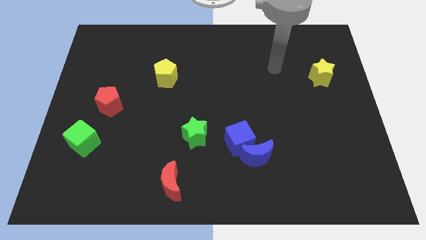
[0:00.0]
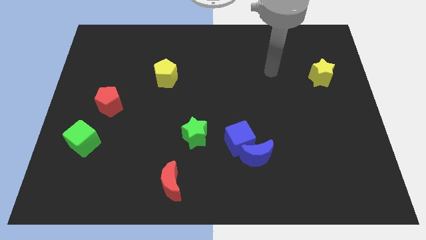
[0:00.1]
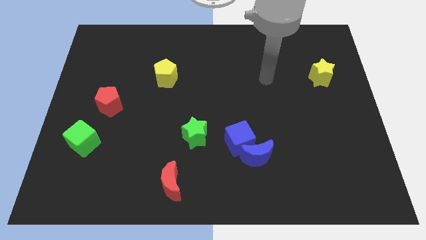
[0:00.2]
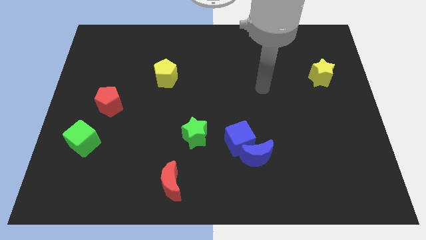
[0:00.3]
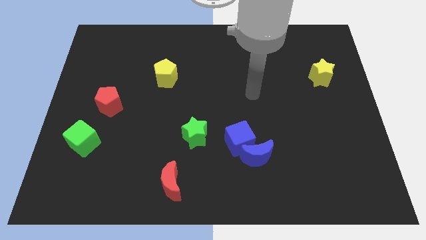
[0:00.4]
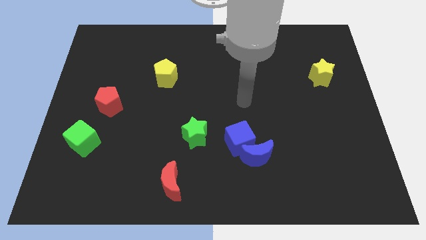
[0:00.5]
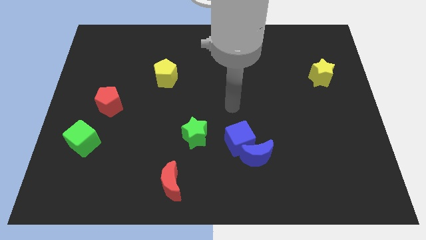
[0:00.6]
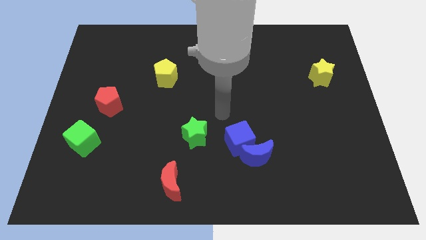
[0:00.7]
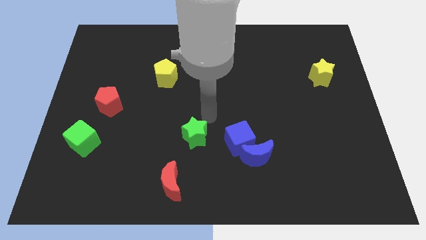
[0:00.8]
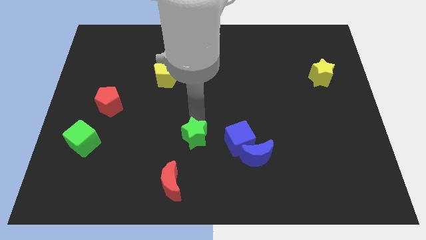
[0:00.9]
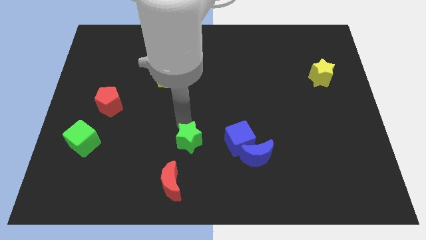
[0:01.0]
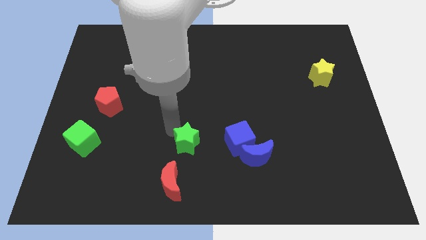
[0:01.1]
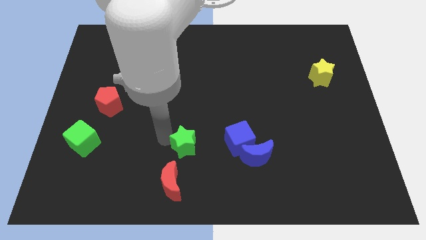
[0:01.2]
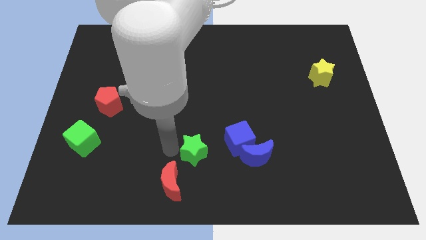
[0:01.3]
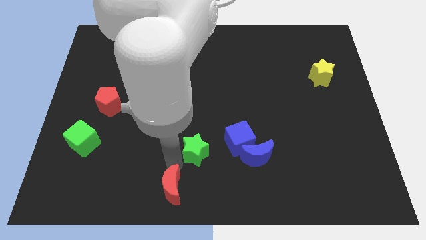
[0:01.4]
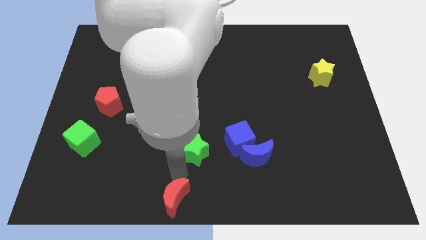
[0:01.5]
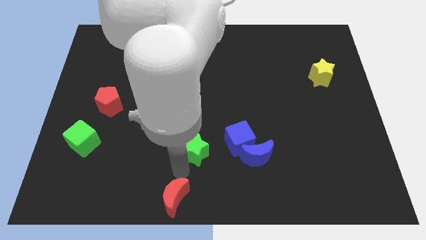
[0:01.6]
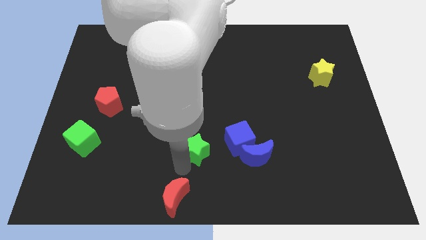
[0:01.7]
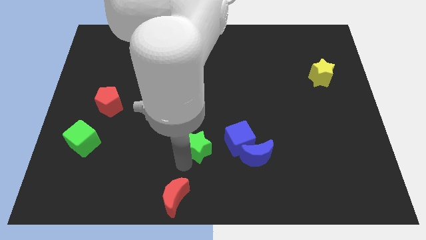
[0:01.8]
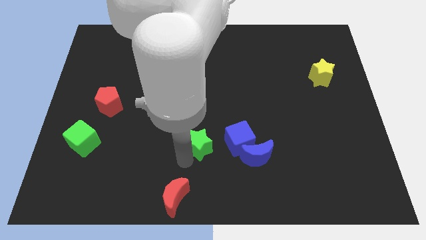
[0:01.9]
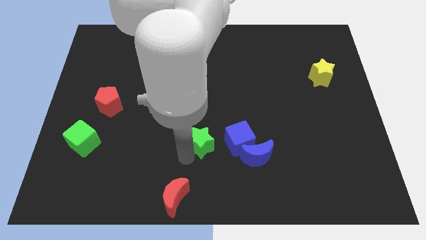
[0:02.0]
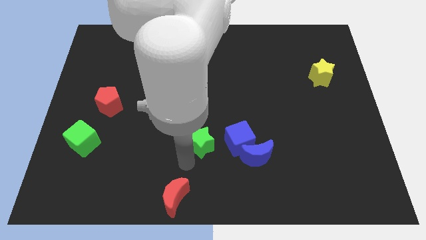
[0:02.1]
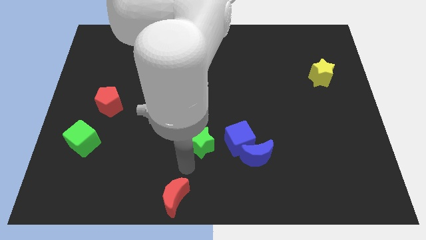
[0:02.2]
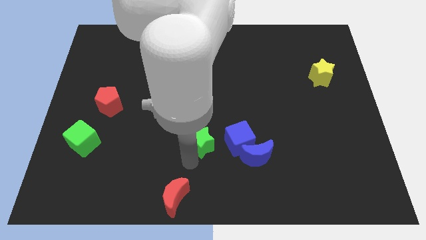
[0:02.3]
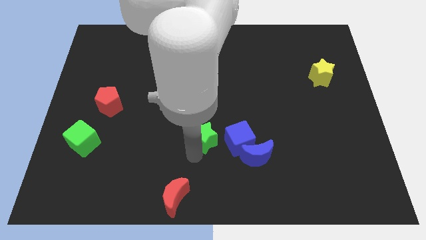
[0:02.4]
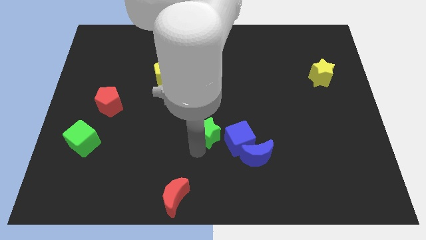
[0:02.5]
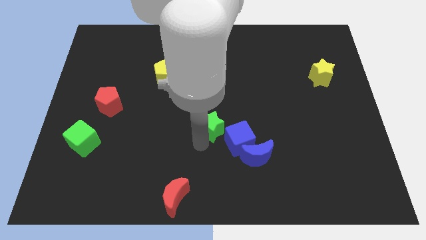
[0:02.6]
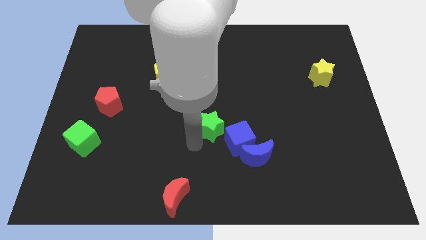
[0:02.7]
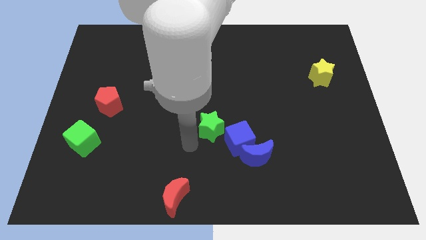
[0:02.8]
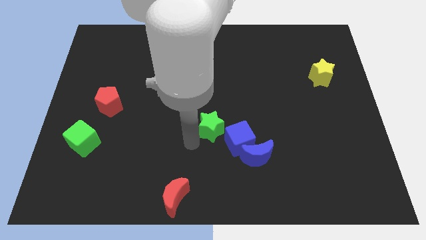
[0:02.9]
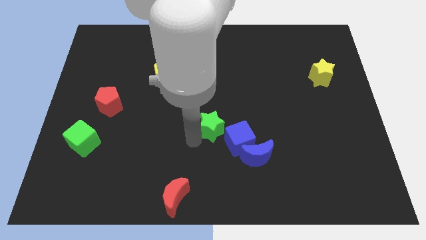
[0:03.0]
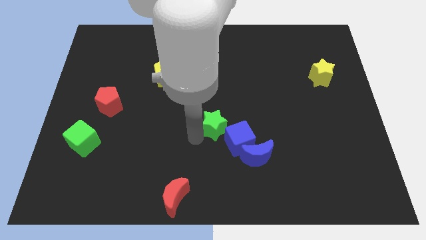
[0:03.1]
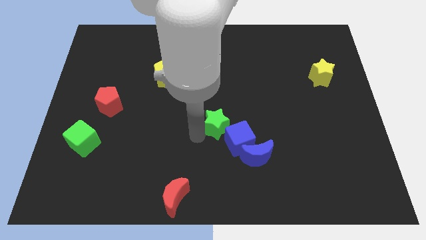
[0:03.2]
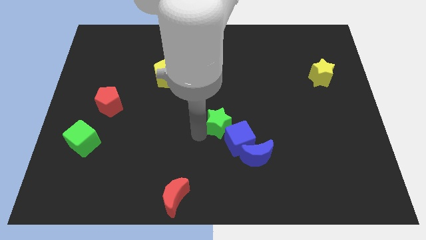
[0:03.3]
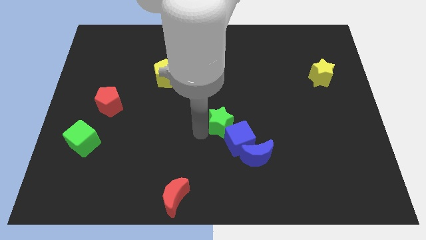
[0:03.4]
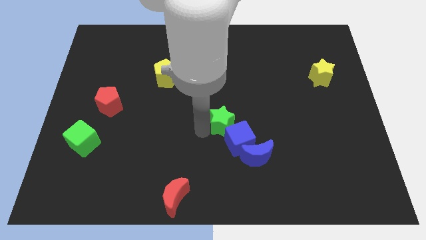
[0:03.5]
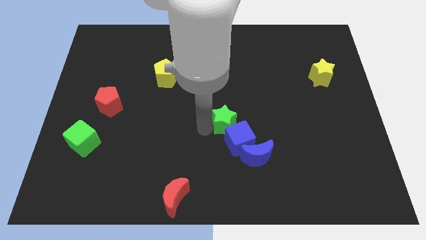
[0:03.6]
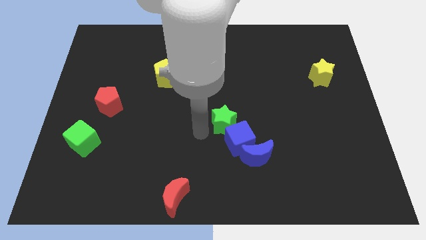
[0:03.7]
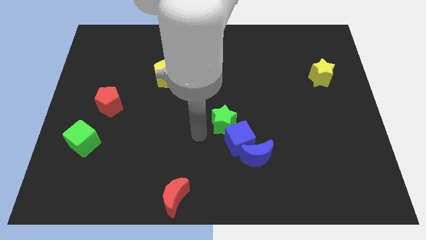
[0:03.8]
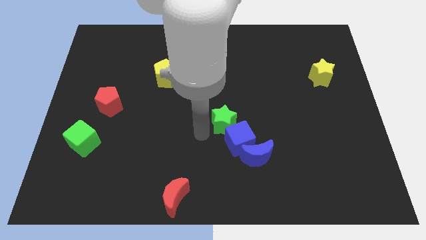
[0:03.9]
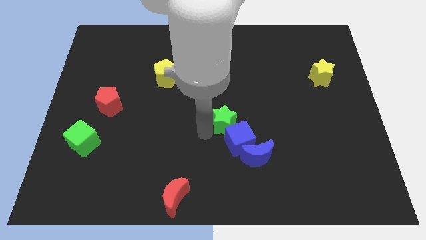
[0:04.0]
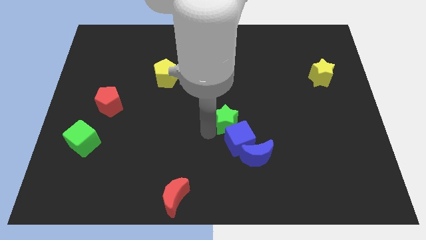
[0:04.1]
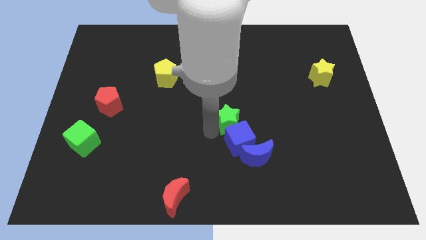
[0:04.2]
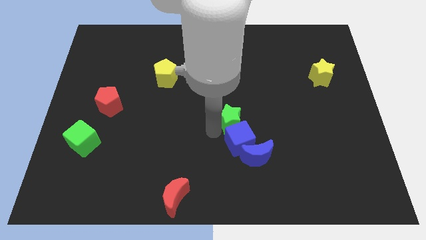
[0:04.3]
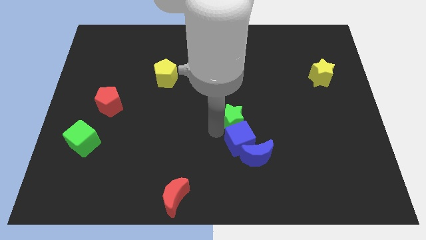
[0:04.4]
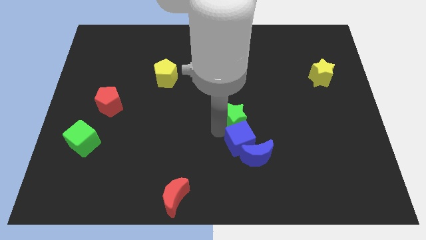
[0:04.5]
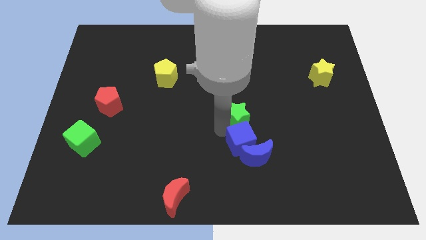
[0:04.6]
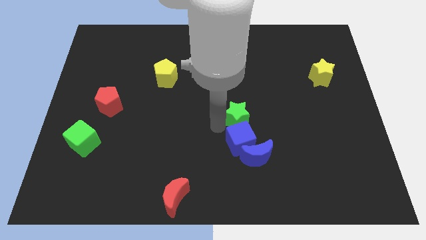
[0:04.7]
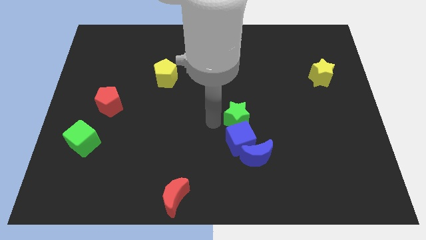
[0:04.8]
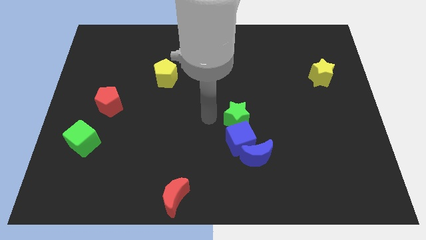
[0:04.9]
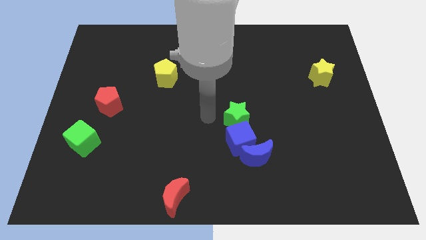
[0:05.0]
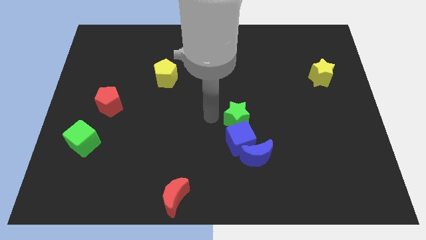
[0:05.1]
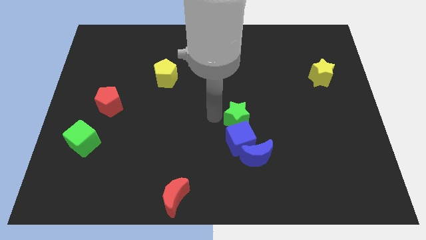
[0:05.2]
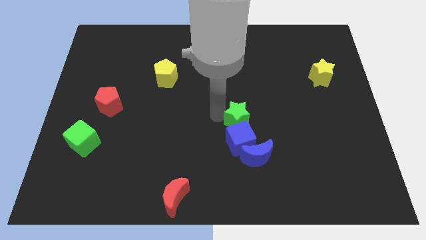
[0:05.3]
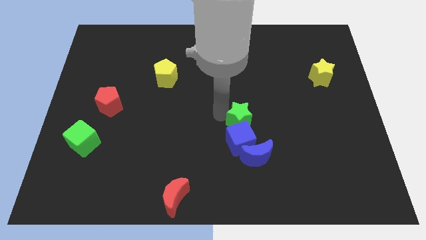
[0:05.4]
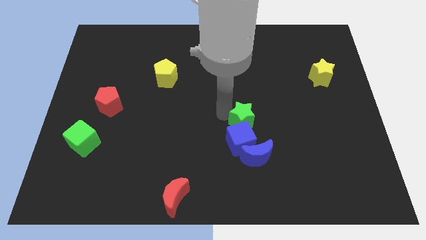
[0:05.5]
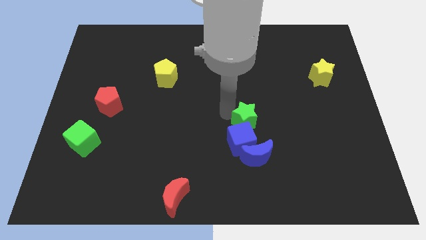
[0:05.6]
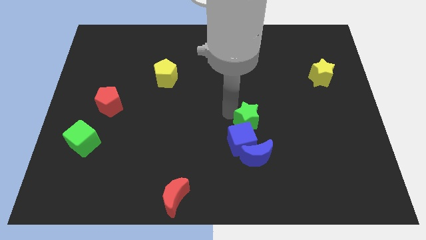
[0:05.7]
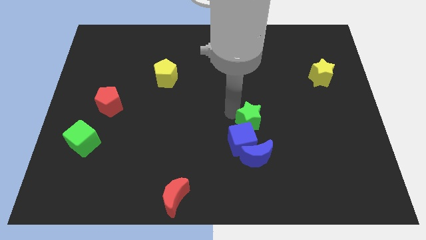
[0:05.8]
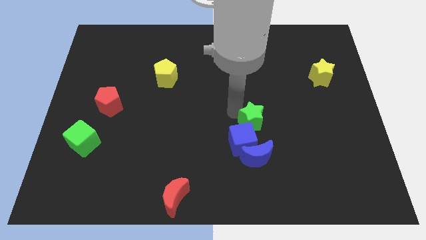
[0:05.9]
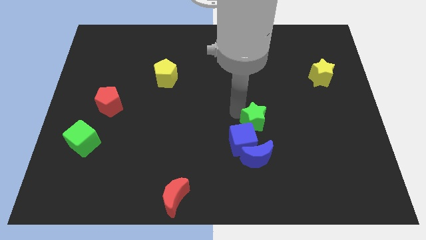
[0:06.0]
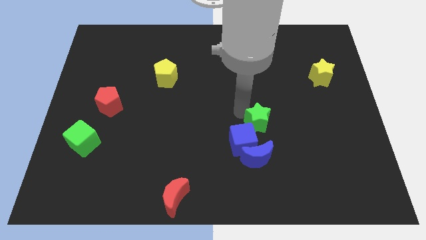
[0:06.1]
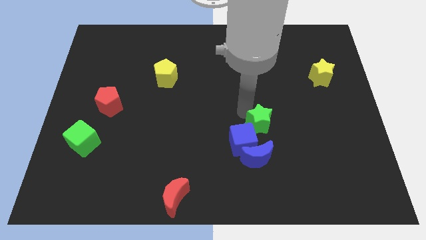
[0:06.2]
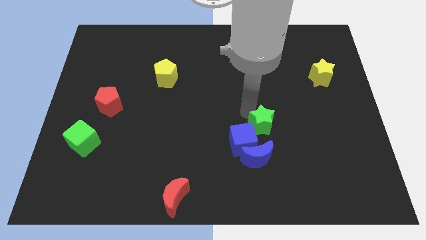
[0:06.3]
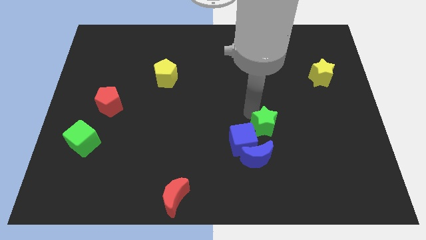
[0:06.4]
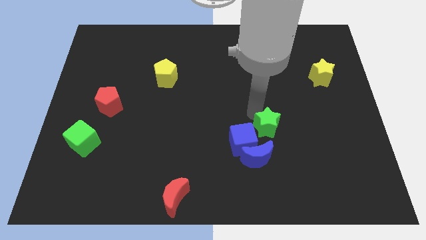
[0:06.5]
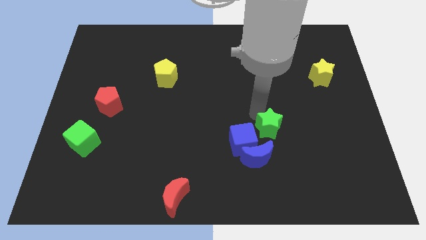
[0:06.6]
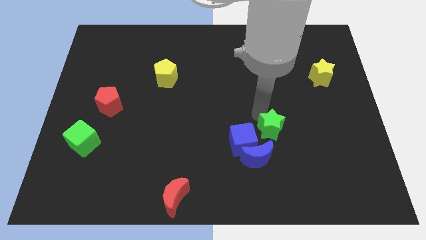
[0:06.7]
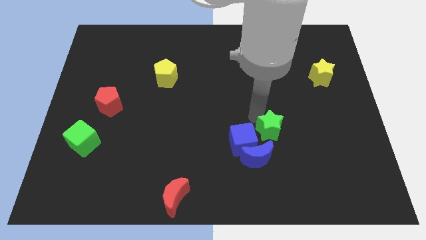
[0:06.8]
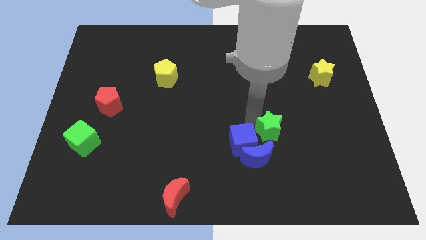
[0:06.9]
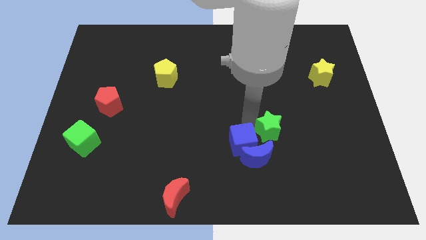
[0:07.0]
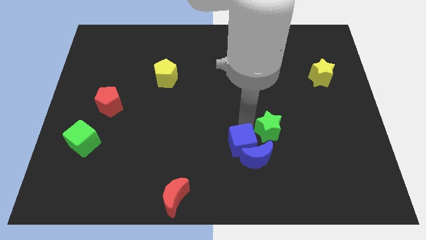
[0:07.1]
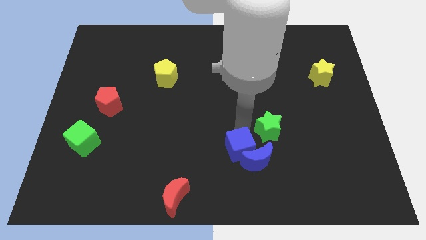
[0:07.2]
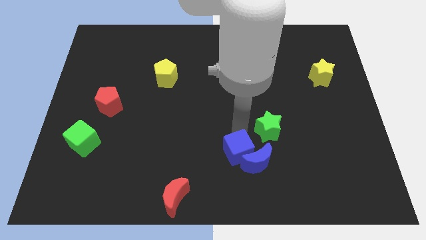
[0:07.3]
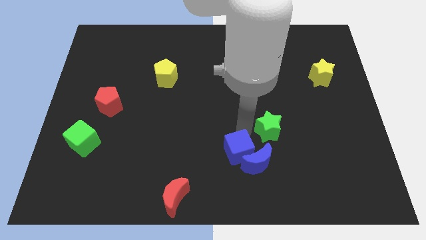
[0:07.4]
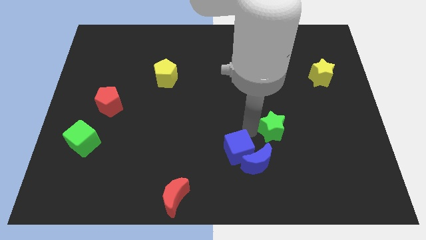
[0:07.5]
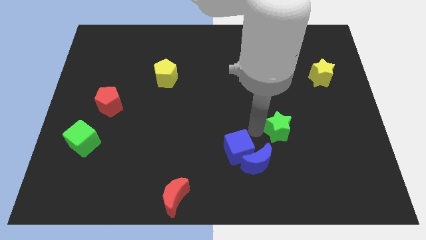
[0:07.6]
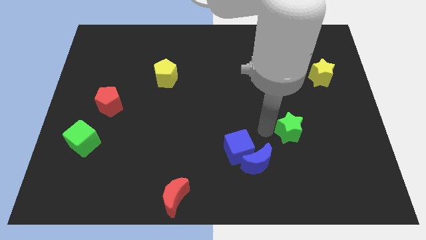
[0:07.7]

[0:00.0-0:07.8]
push the green star to the right
